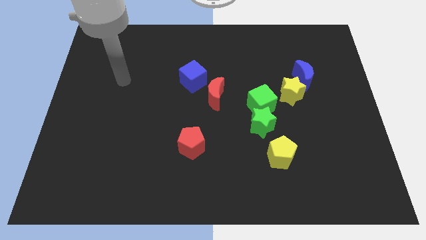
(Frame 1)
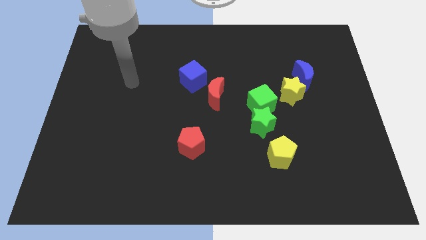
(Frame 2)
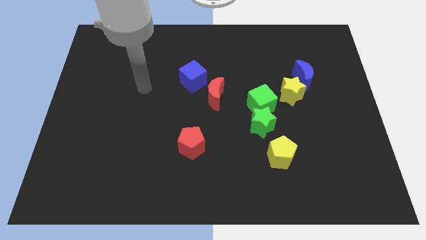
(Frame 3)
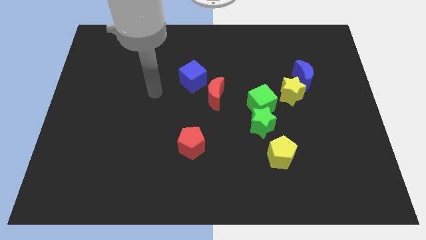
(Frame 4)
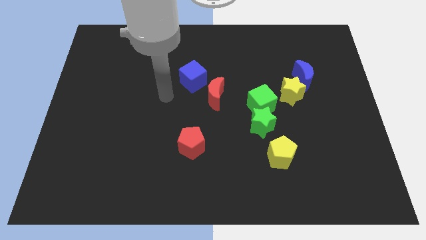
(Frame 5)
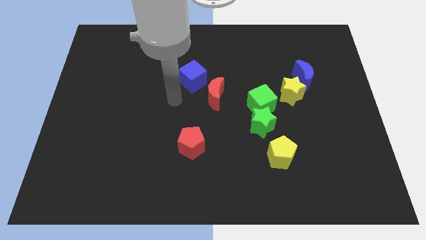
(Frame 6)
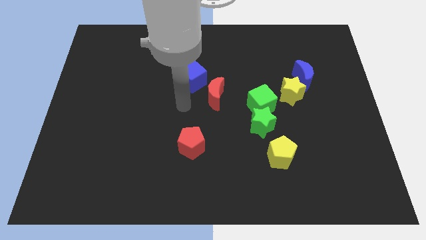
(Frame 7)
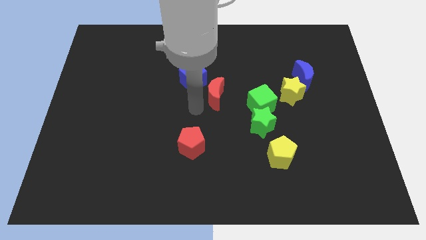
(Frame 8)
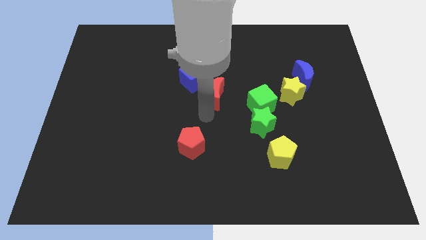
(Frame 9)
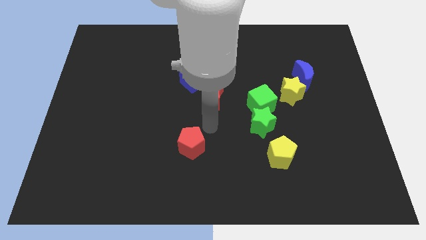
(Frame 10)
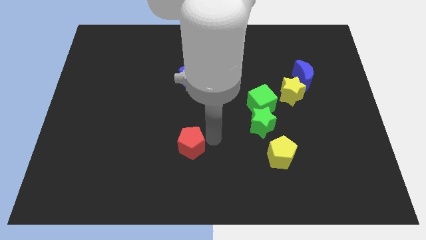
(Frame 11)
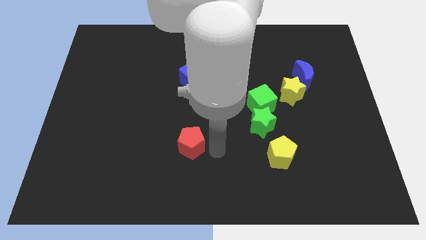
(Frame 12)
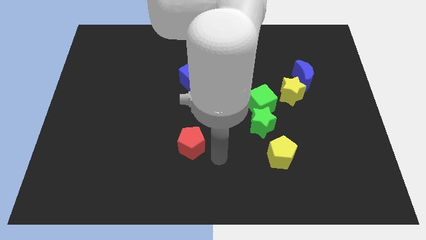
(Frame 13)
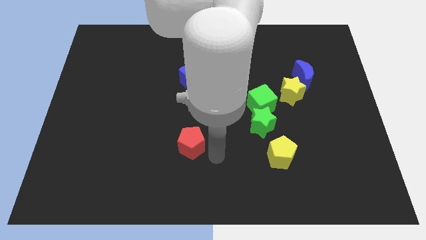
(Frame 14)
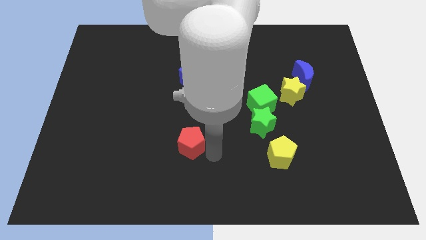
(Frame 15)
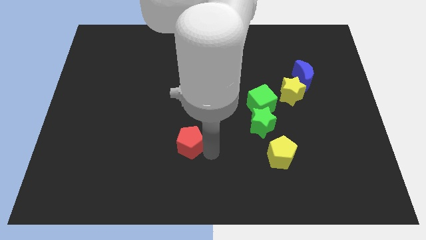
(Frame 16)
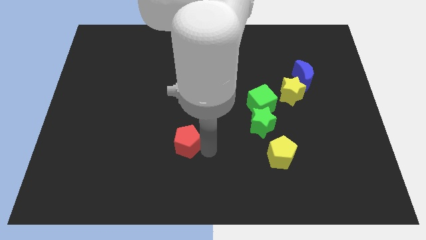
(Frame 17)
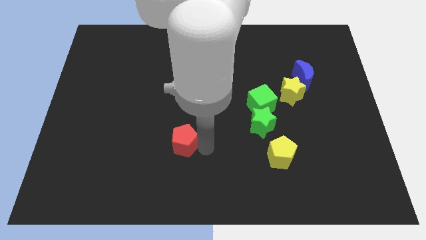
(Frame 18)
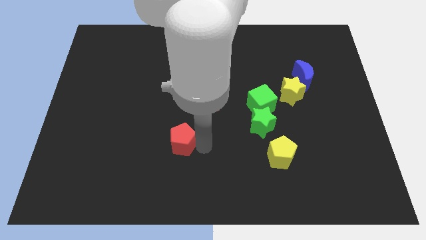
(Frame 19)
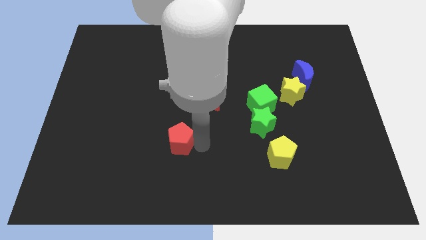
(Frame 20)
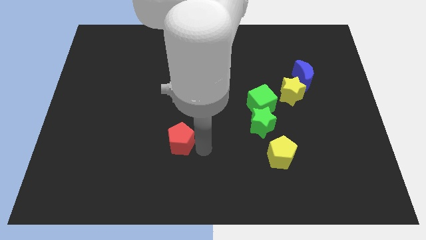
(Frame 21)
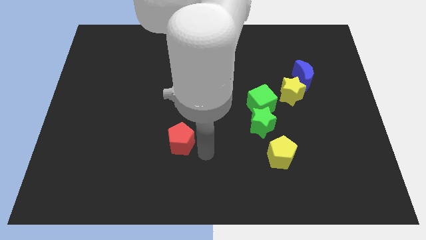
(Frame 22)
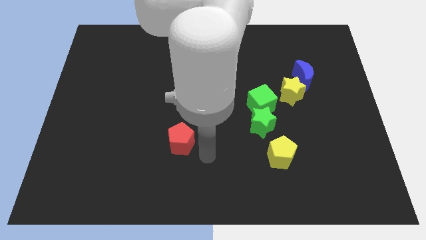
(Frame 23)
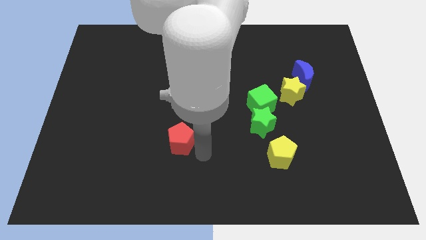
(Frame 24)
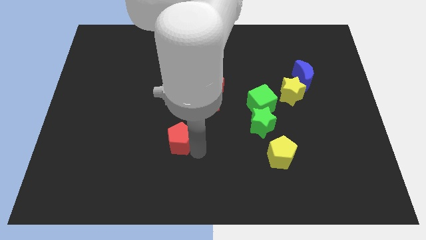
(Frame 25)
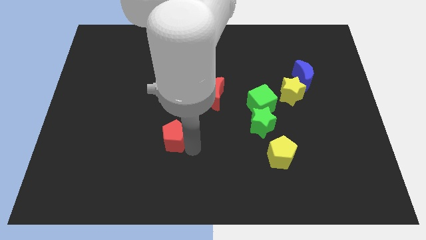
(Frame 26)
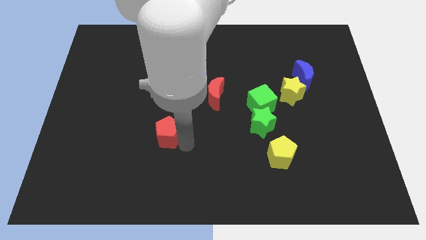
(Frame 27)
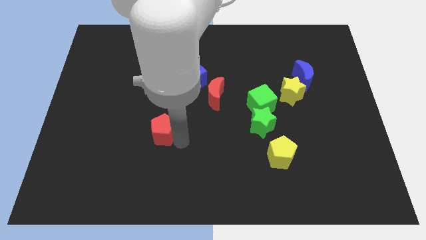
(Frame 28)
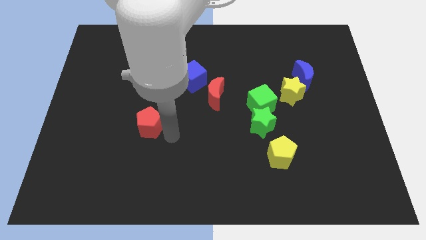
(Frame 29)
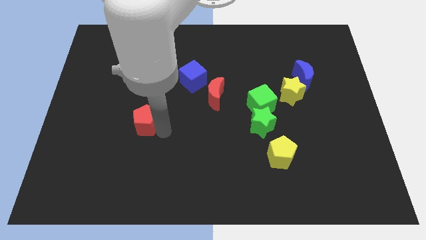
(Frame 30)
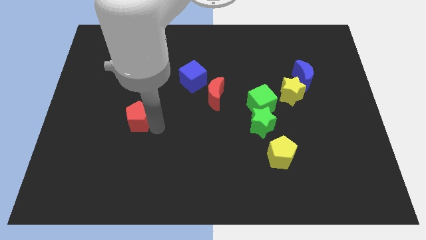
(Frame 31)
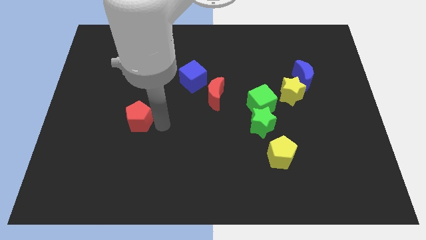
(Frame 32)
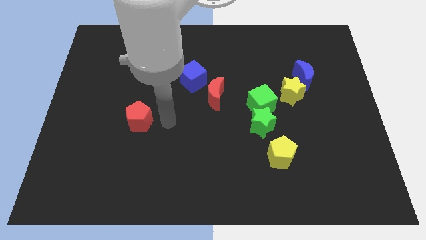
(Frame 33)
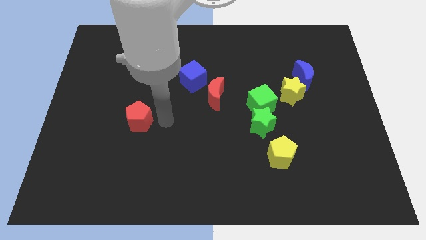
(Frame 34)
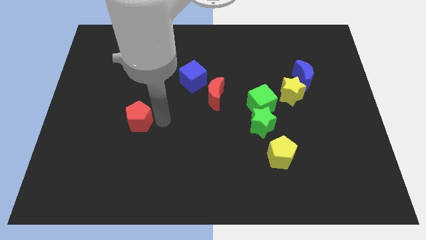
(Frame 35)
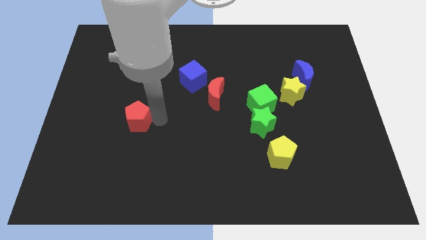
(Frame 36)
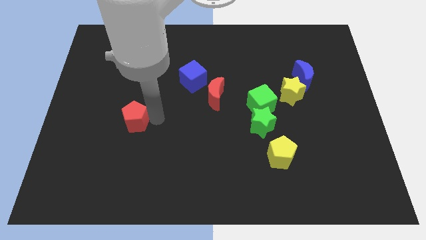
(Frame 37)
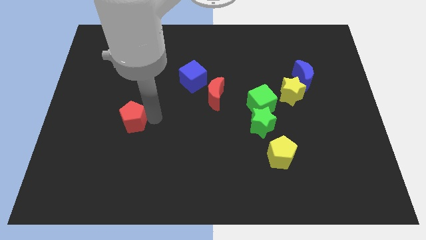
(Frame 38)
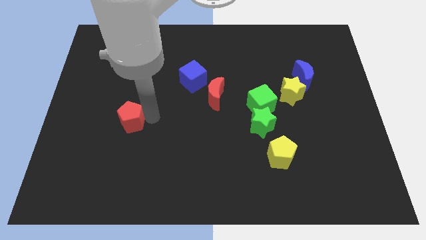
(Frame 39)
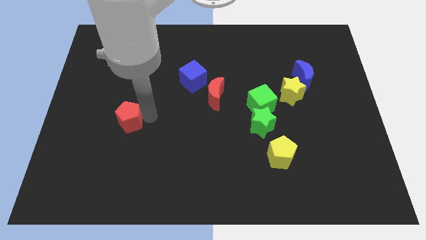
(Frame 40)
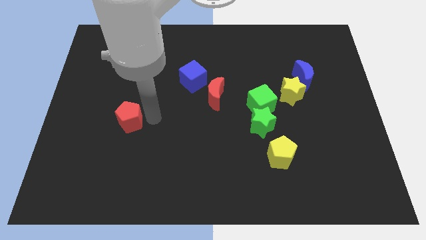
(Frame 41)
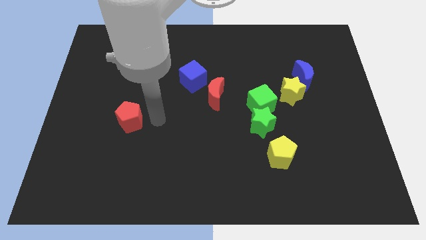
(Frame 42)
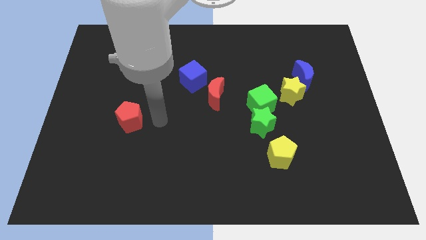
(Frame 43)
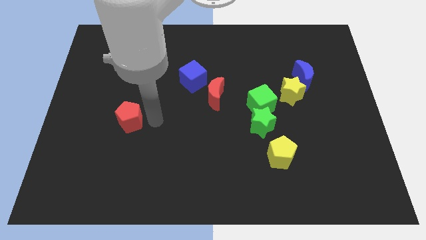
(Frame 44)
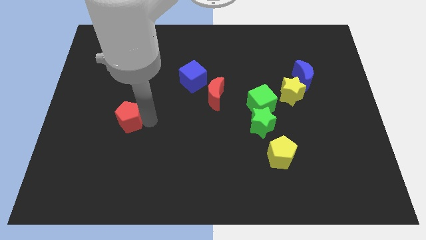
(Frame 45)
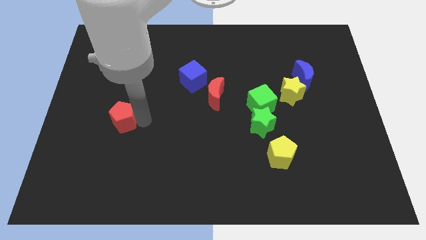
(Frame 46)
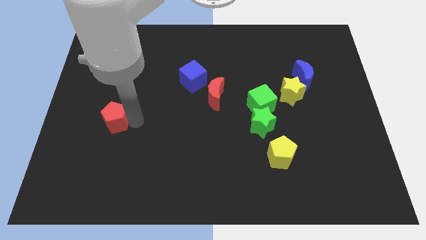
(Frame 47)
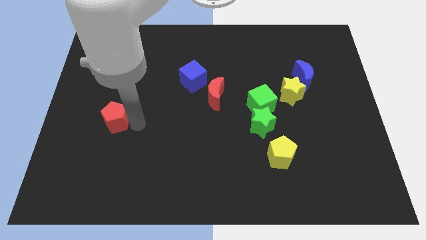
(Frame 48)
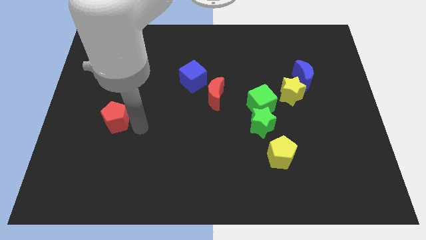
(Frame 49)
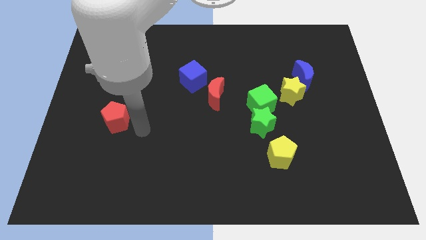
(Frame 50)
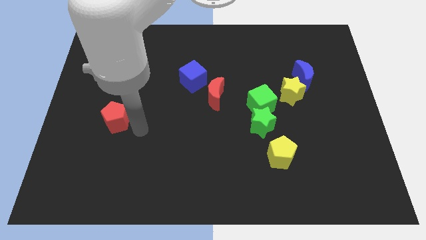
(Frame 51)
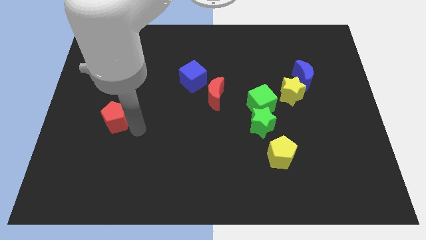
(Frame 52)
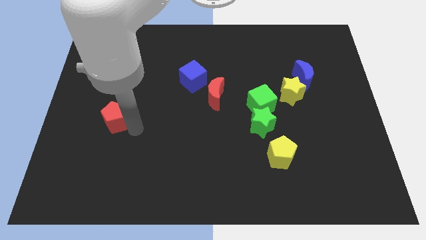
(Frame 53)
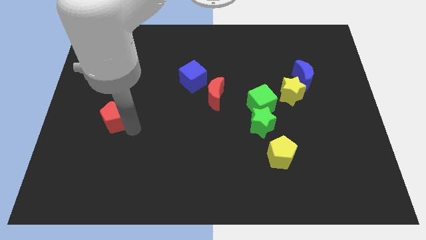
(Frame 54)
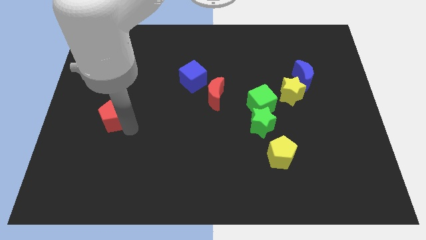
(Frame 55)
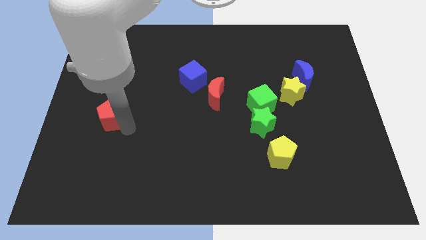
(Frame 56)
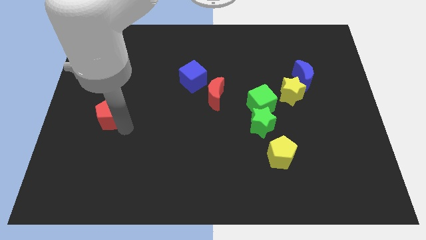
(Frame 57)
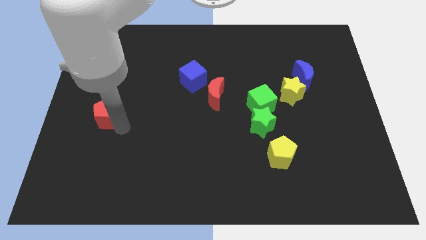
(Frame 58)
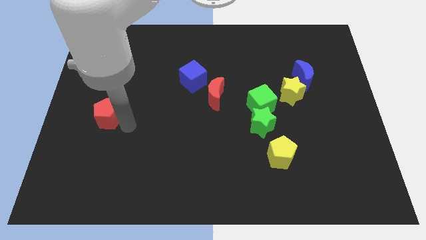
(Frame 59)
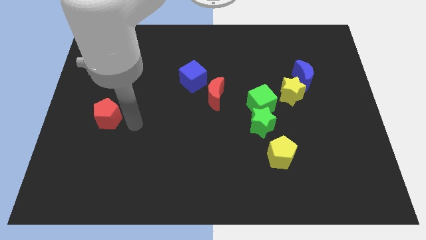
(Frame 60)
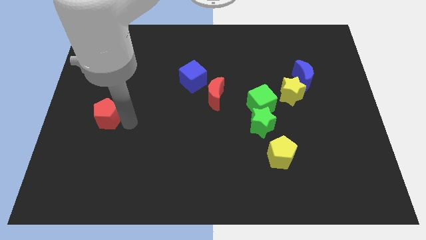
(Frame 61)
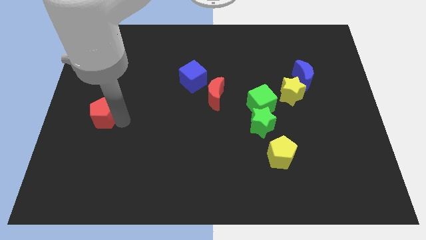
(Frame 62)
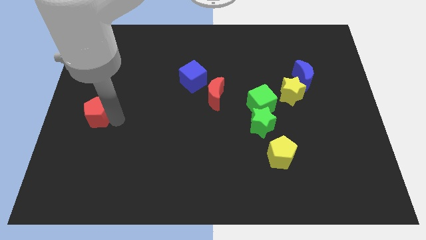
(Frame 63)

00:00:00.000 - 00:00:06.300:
slide the red pentagon to the center left
